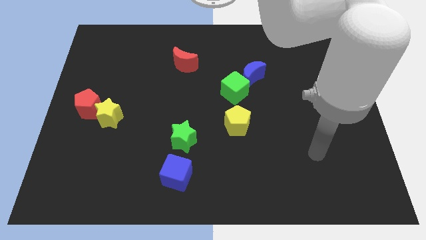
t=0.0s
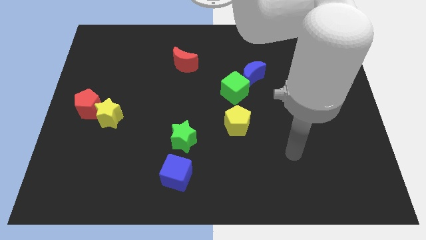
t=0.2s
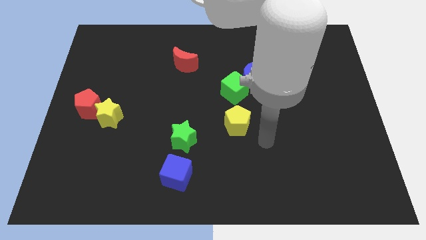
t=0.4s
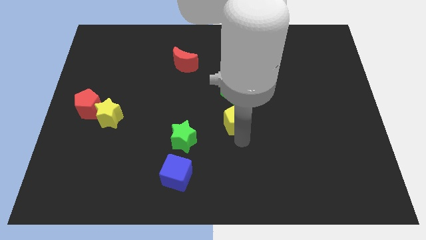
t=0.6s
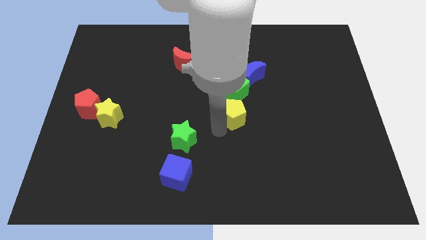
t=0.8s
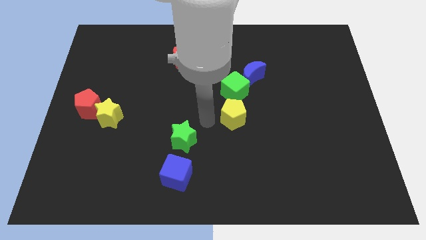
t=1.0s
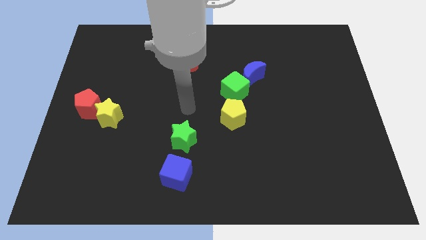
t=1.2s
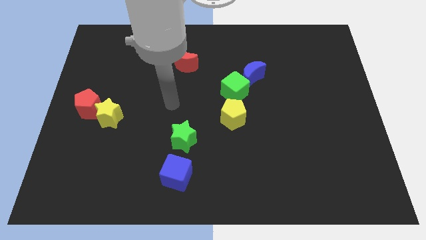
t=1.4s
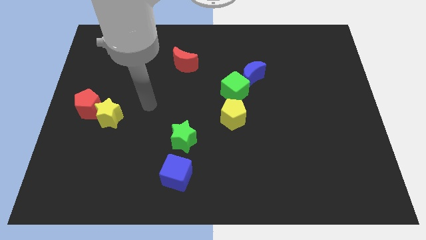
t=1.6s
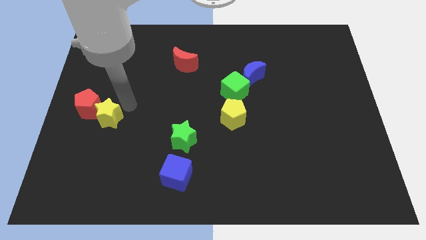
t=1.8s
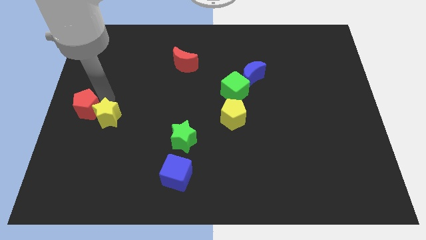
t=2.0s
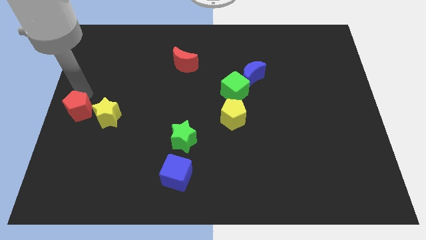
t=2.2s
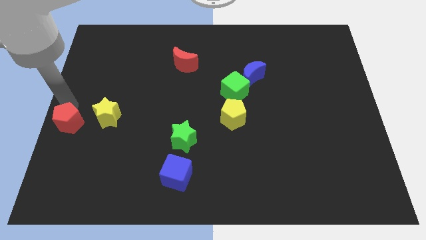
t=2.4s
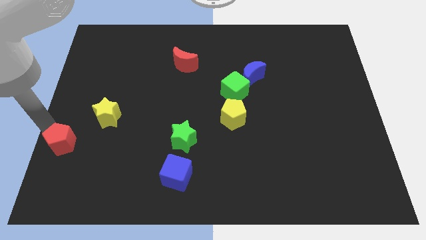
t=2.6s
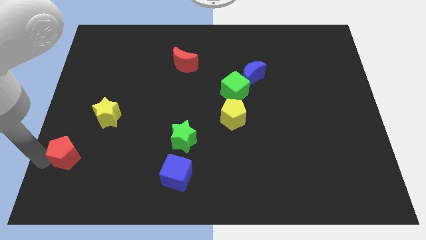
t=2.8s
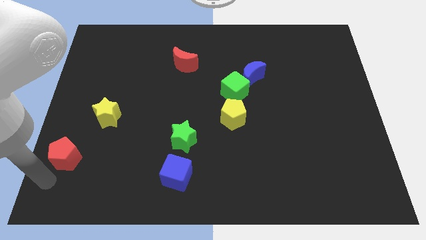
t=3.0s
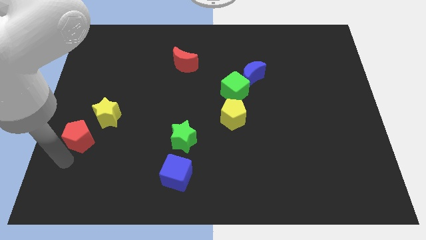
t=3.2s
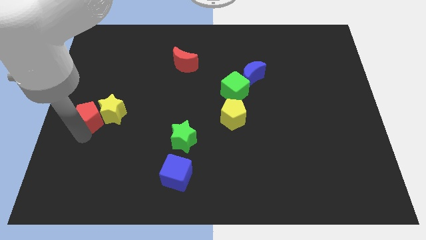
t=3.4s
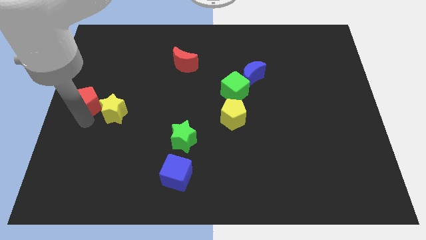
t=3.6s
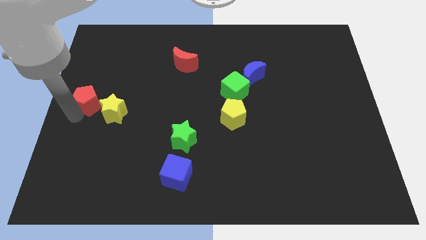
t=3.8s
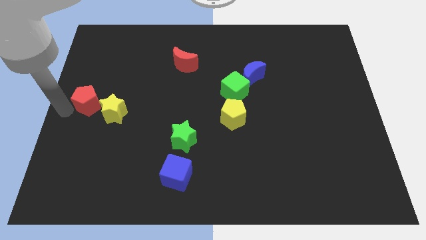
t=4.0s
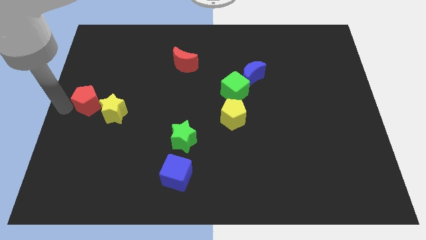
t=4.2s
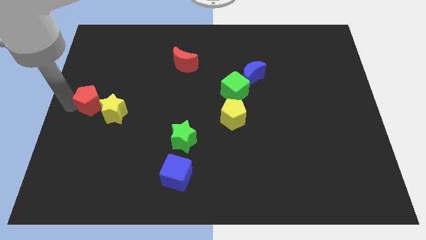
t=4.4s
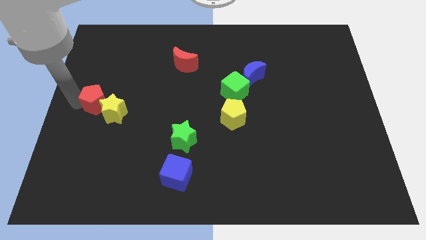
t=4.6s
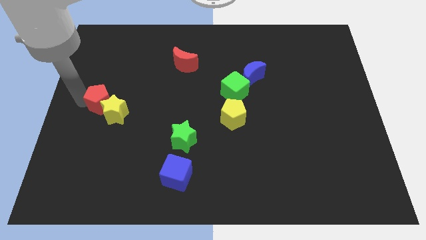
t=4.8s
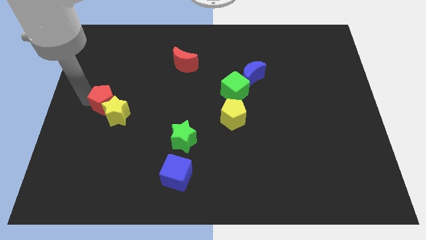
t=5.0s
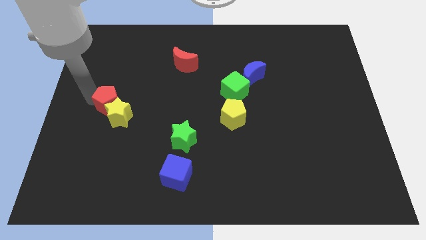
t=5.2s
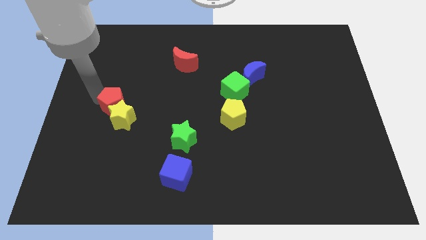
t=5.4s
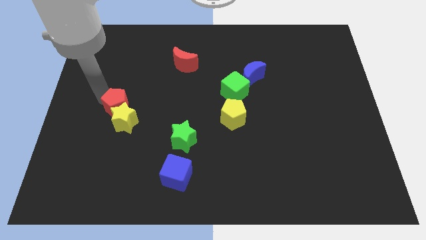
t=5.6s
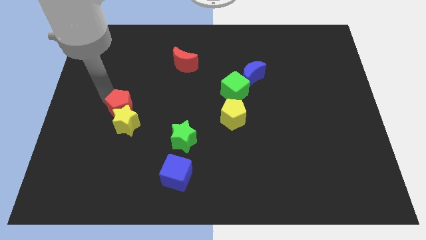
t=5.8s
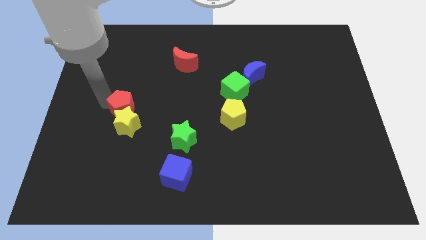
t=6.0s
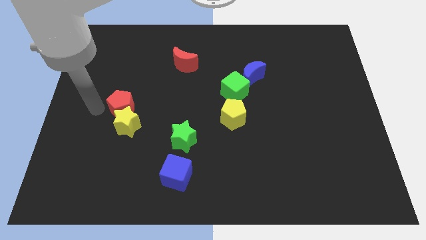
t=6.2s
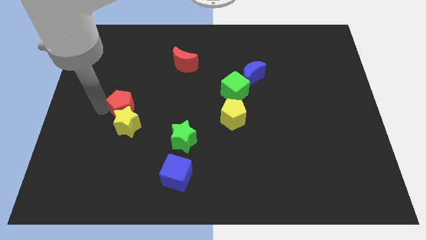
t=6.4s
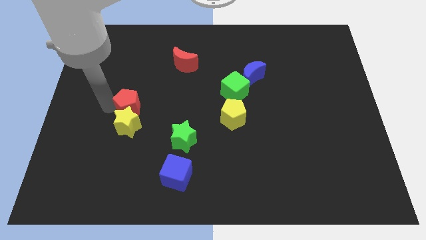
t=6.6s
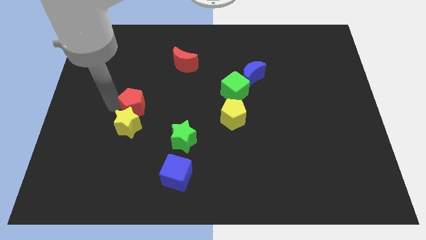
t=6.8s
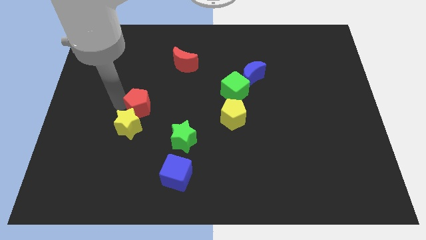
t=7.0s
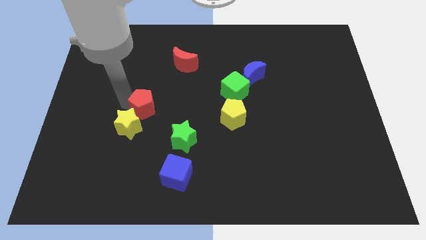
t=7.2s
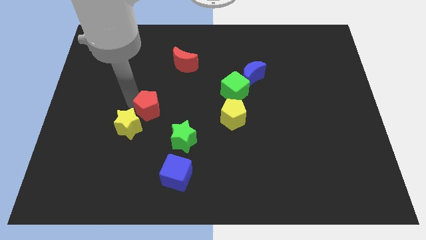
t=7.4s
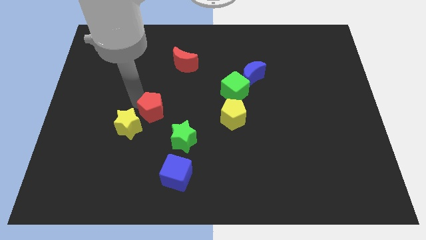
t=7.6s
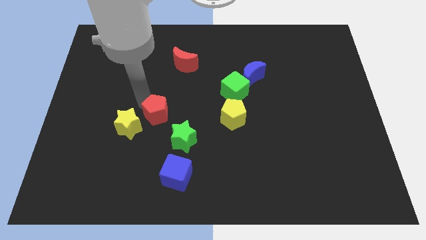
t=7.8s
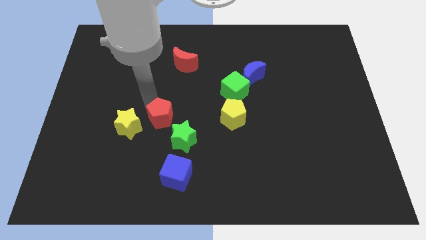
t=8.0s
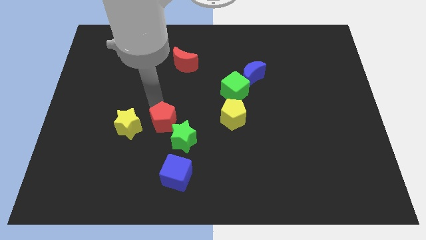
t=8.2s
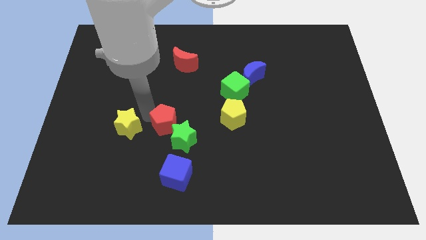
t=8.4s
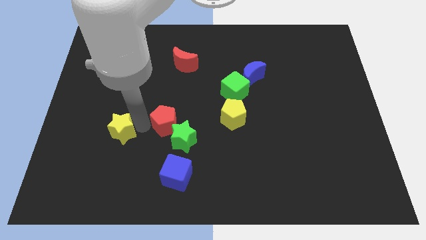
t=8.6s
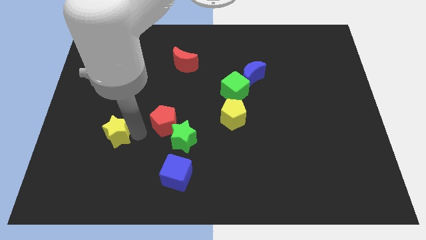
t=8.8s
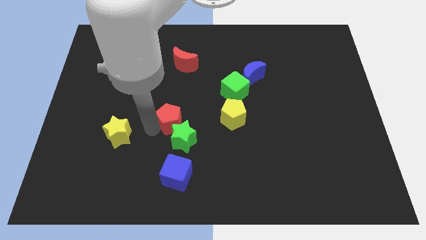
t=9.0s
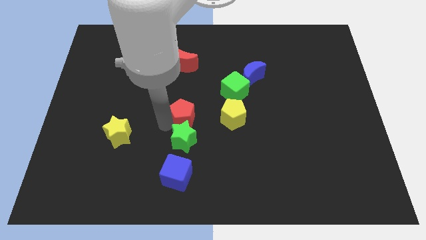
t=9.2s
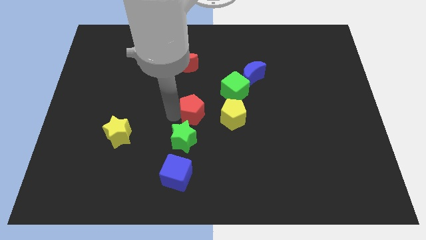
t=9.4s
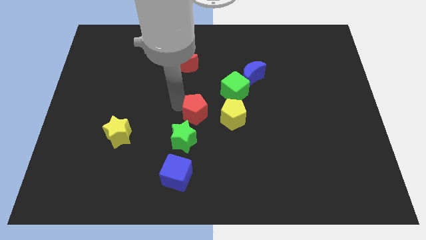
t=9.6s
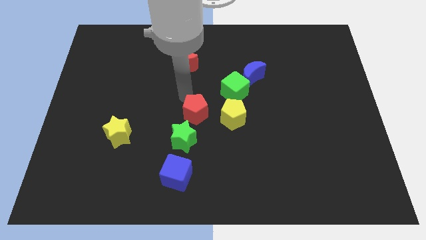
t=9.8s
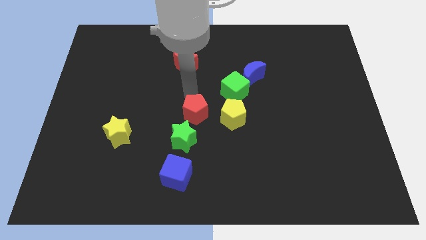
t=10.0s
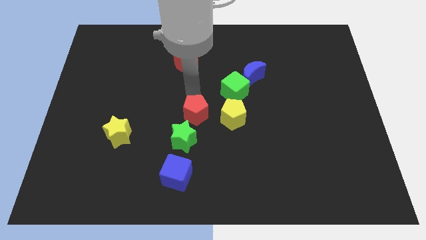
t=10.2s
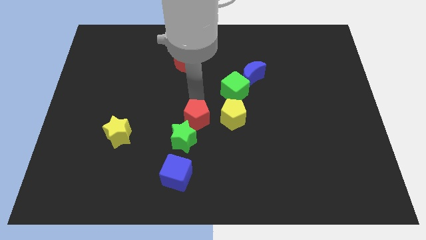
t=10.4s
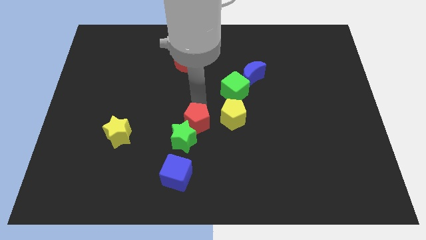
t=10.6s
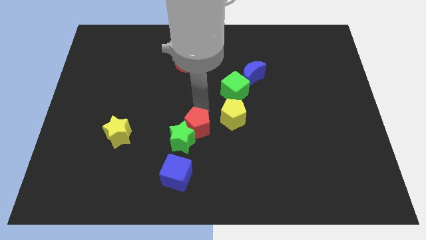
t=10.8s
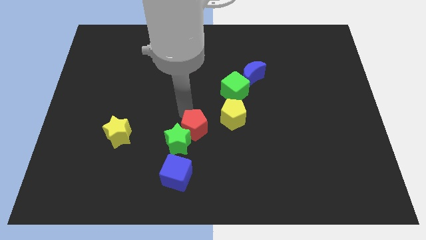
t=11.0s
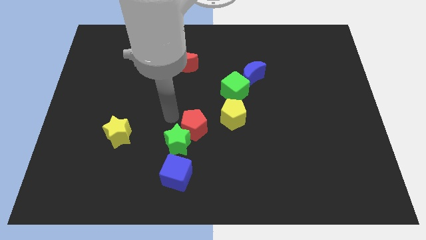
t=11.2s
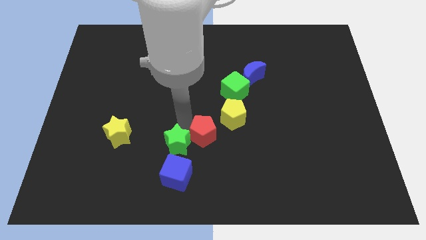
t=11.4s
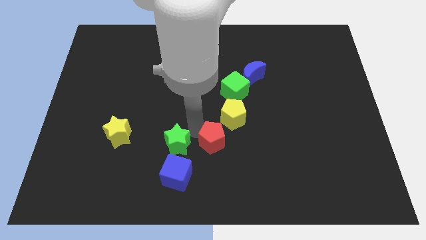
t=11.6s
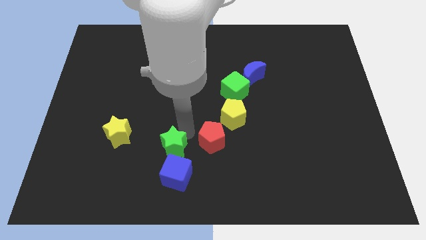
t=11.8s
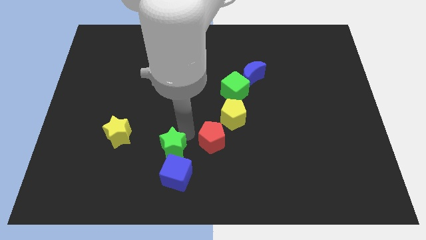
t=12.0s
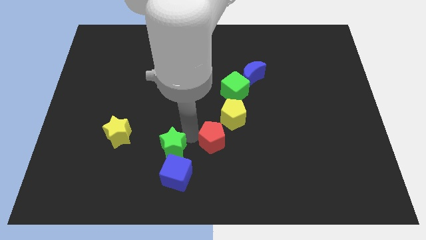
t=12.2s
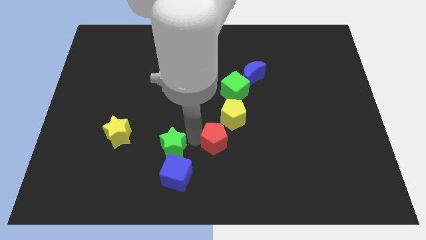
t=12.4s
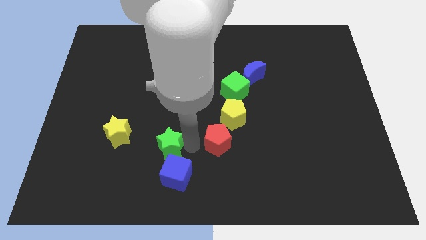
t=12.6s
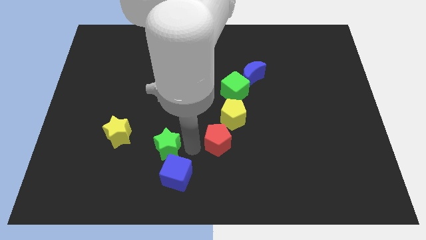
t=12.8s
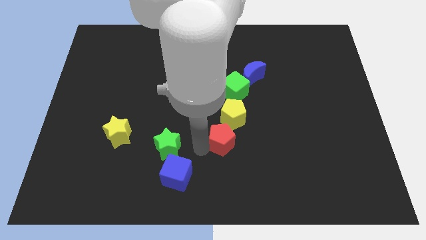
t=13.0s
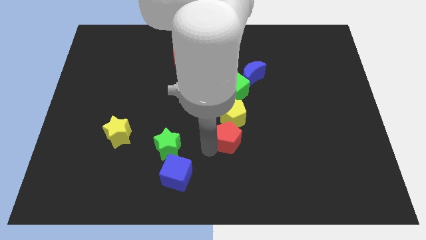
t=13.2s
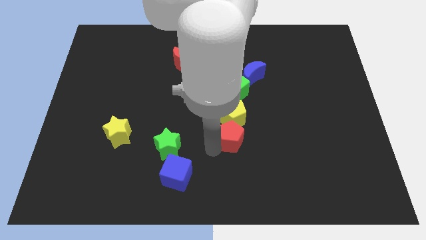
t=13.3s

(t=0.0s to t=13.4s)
move the red pentagon diagonally down and to the right of the yellow pentagon
